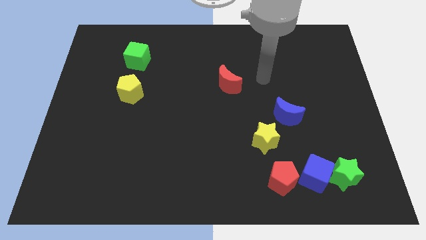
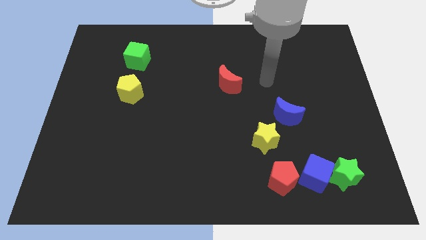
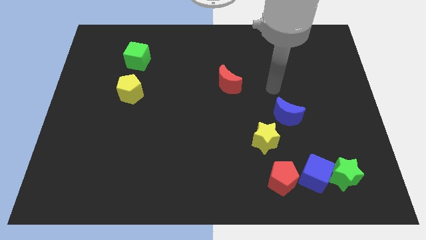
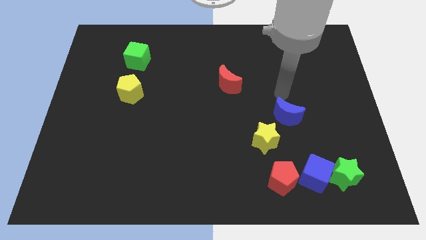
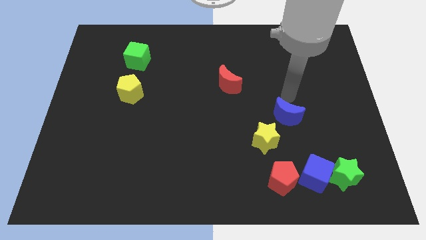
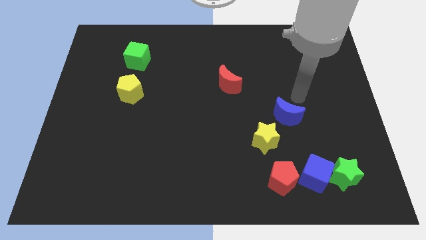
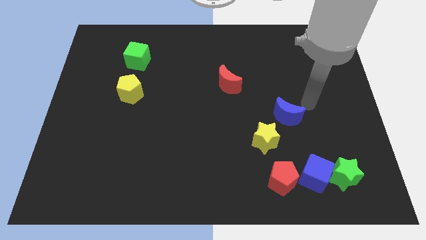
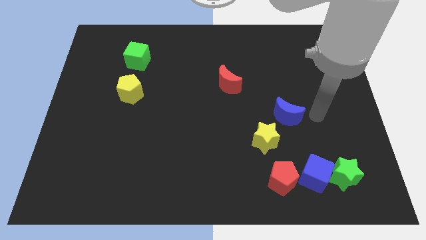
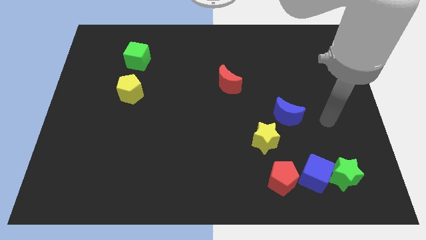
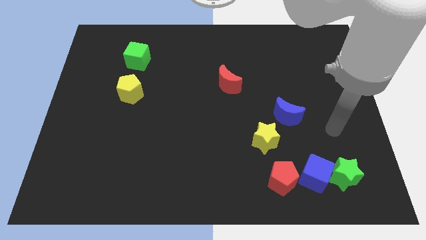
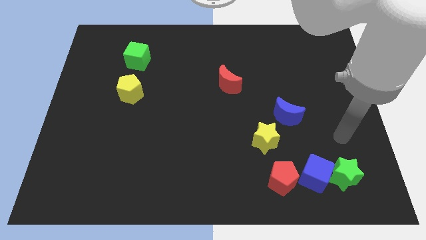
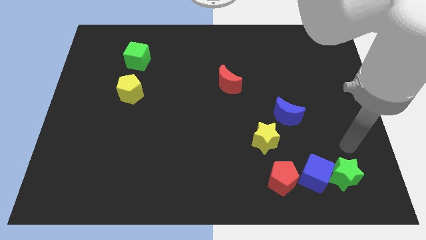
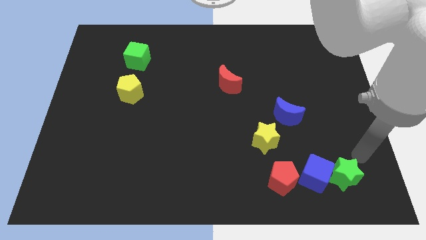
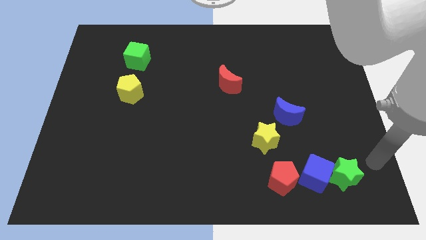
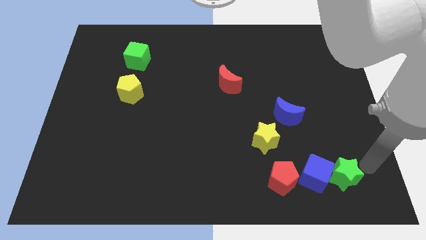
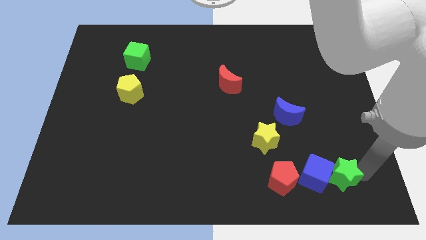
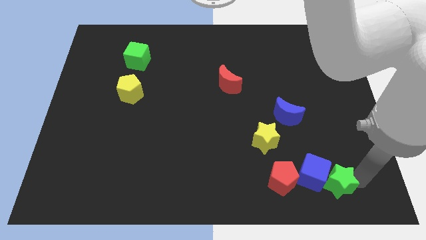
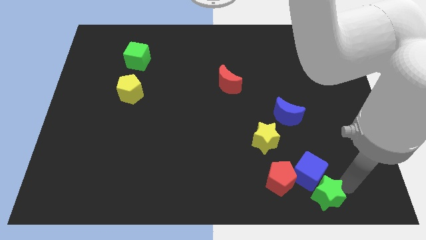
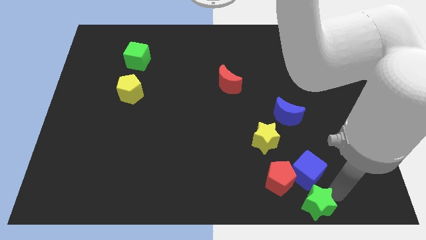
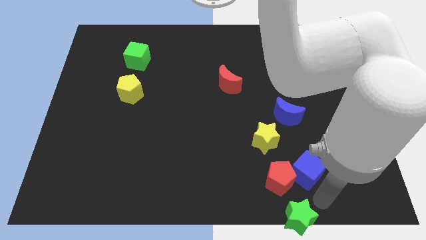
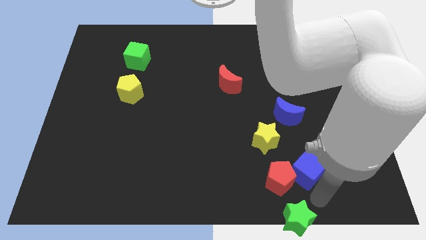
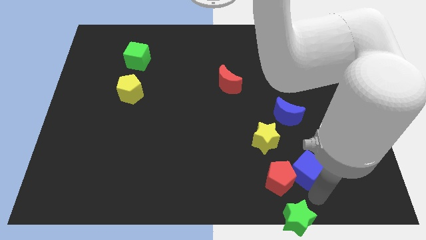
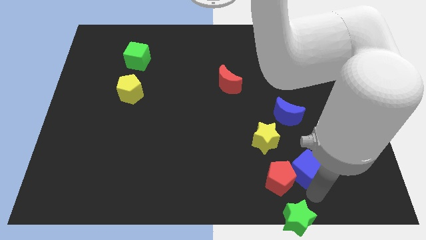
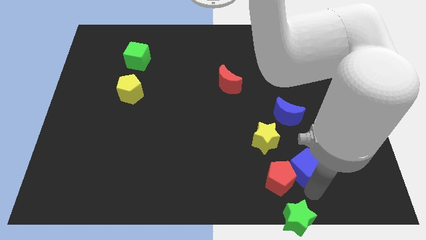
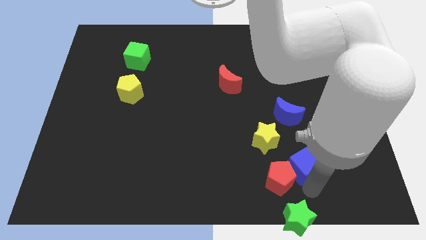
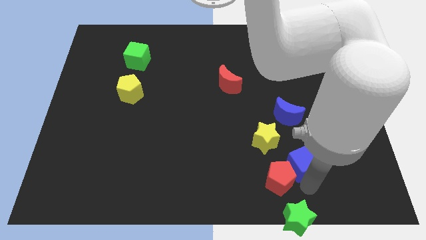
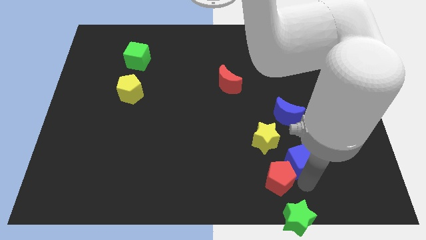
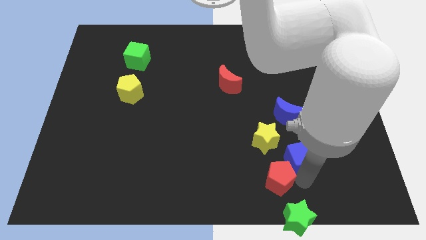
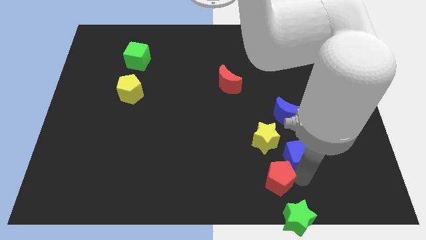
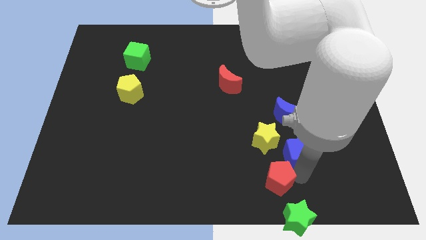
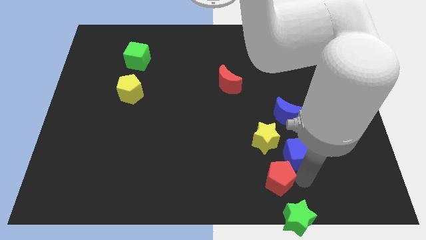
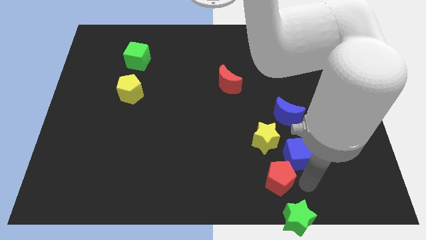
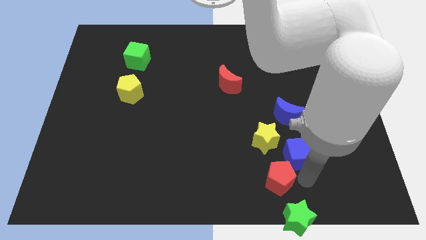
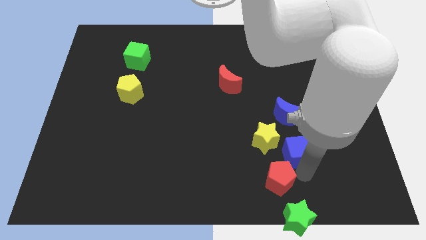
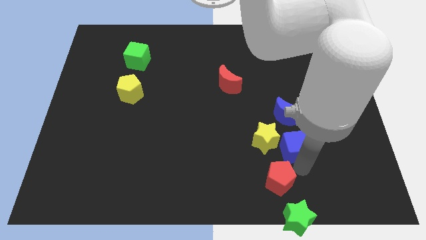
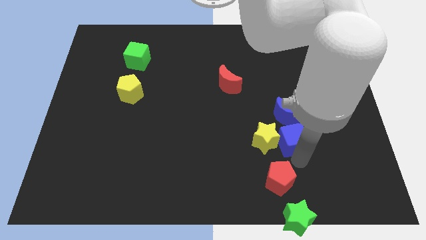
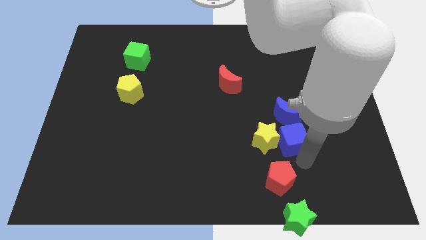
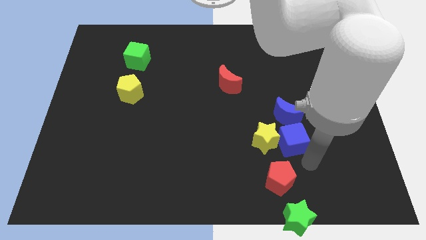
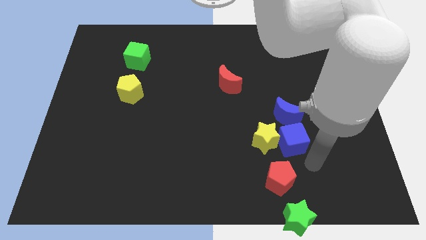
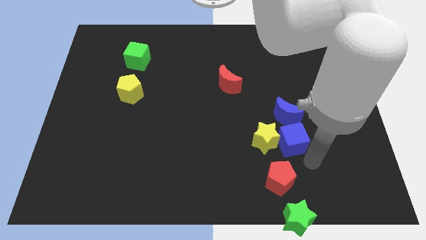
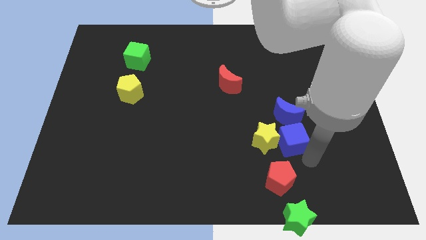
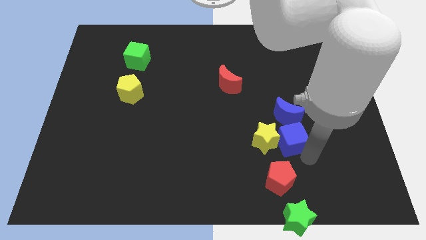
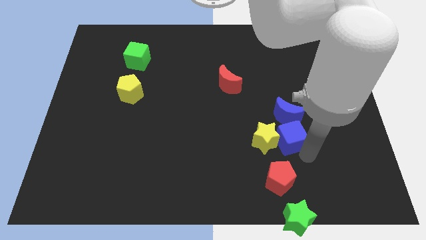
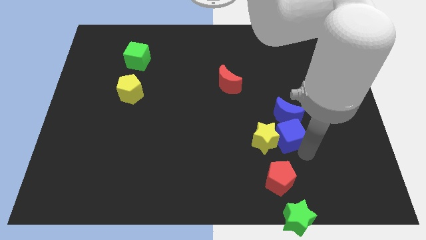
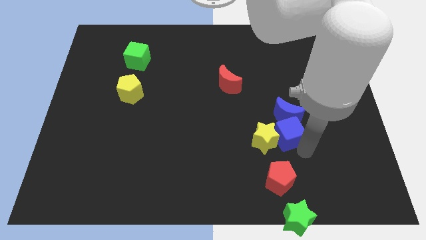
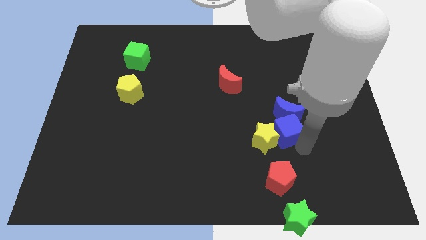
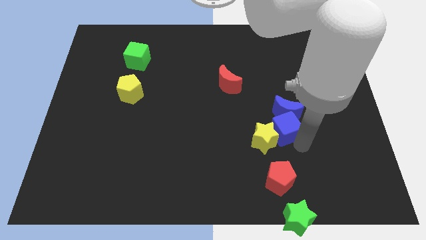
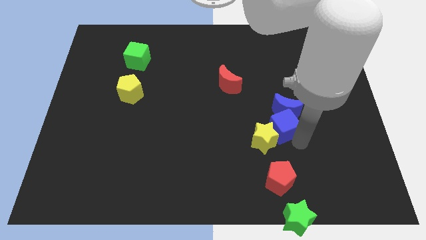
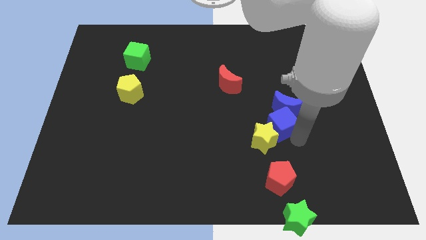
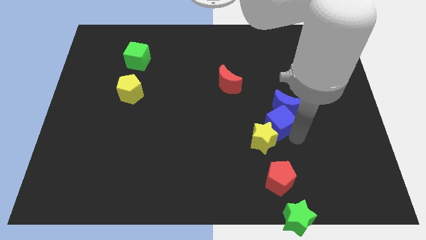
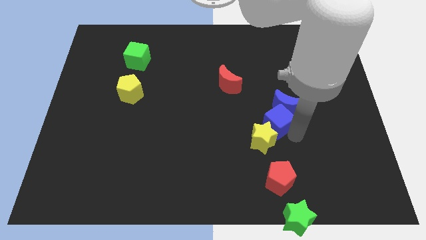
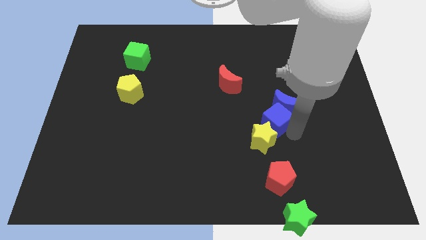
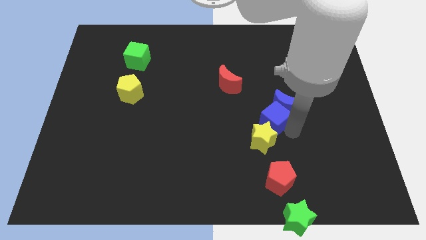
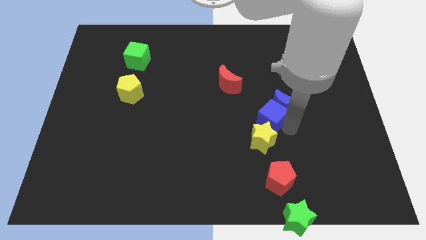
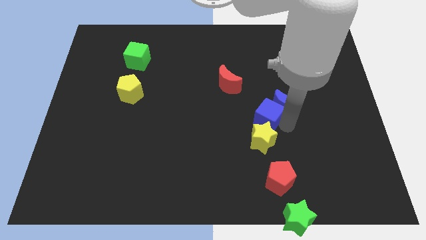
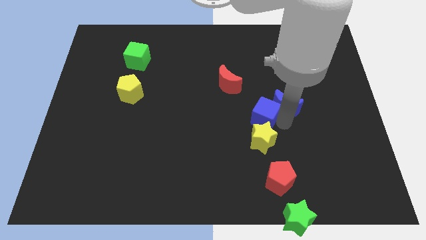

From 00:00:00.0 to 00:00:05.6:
push the blue cube to the center of the board

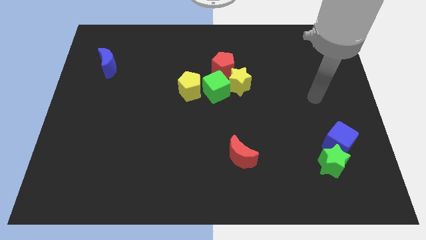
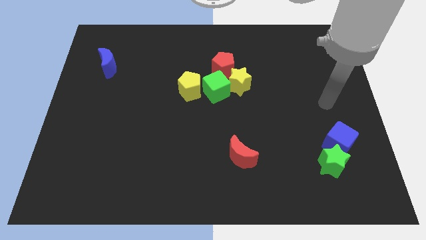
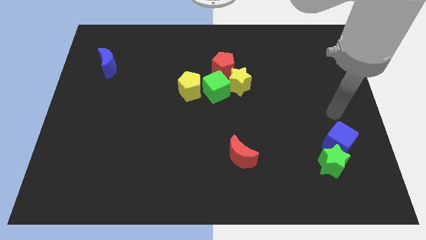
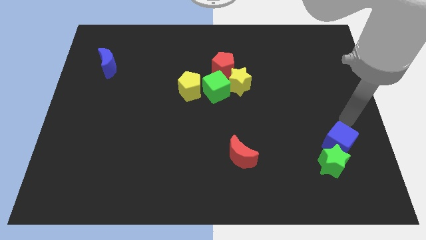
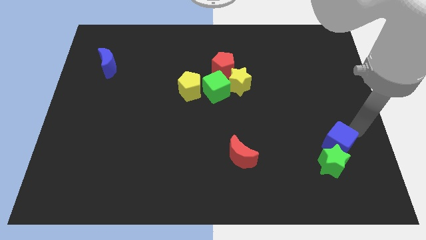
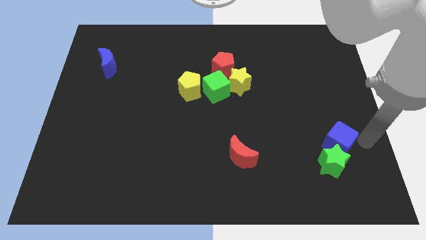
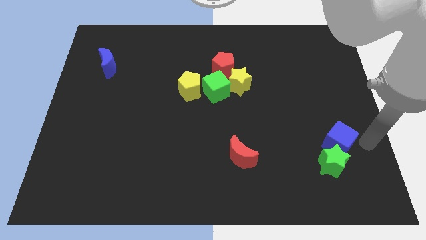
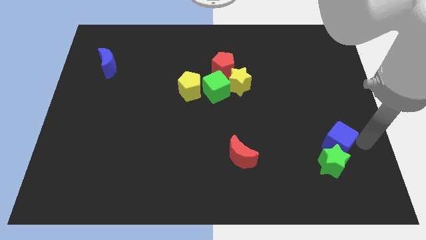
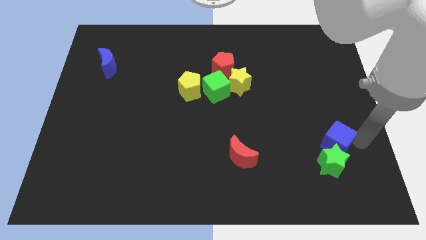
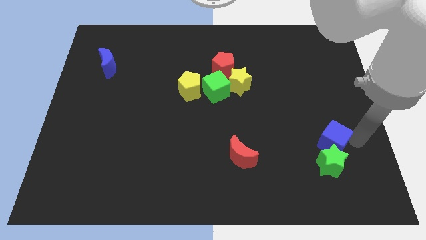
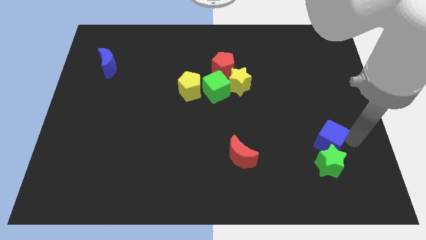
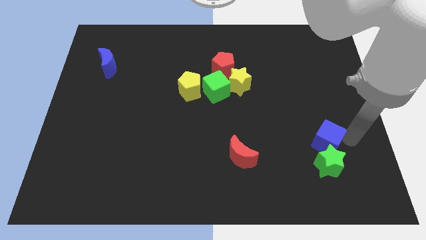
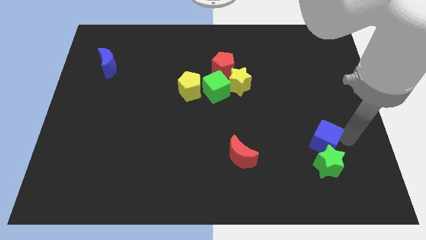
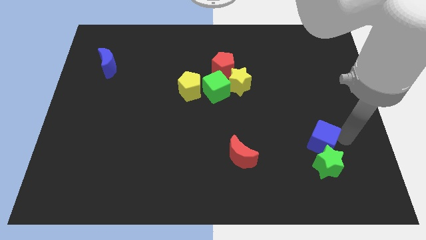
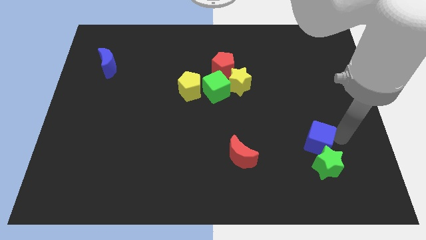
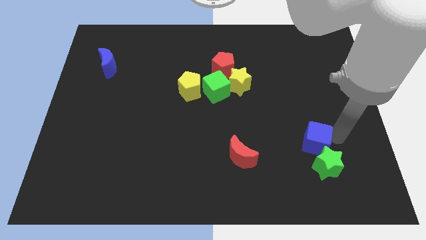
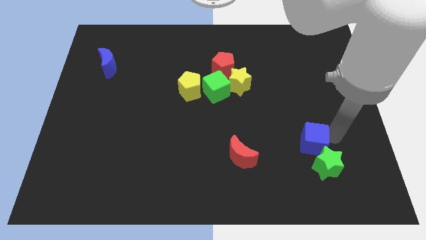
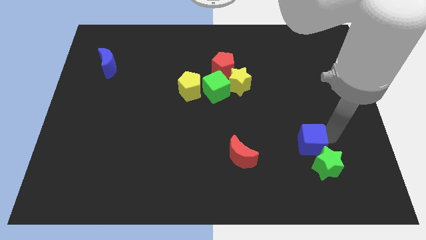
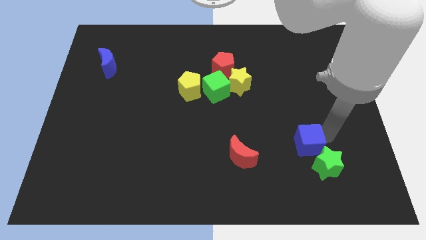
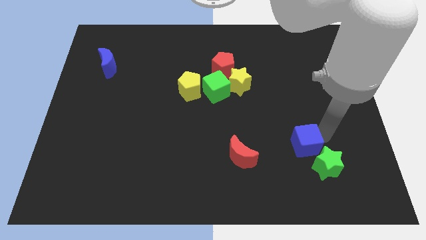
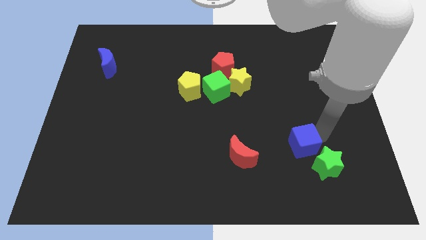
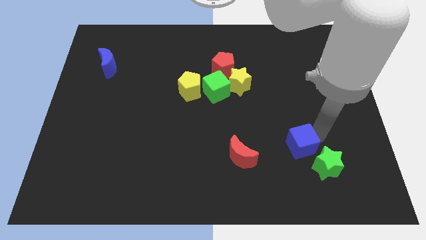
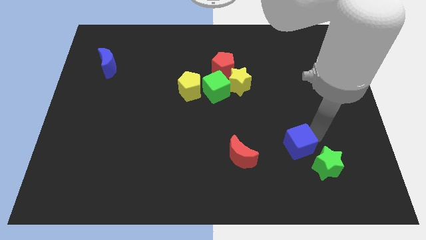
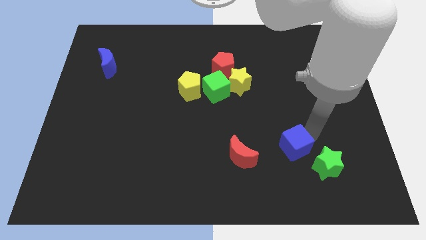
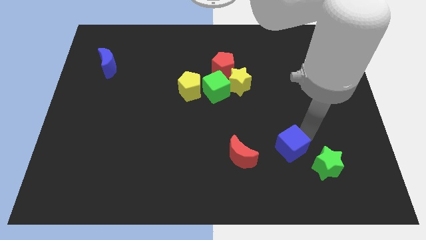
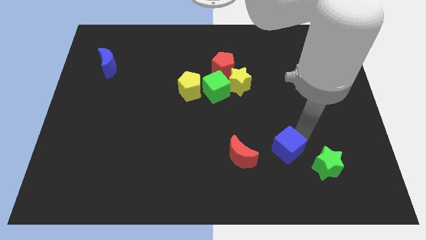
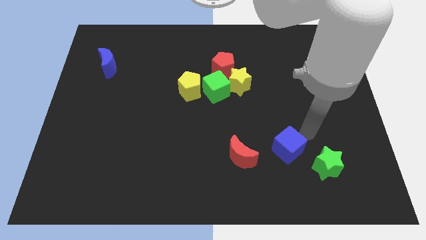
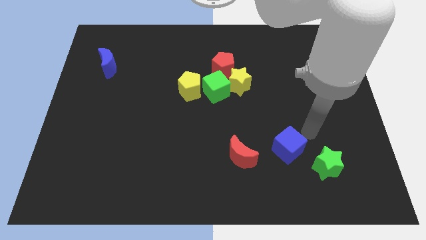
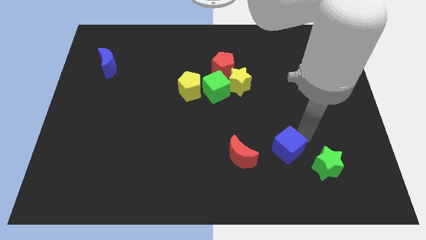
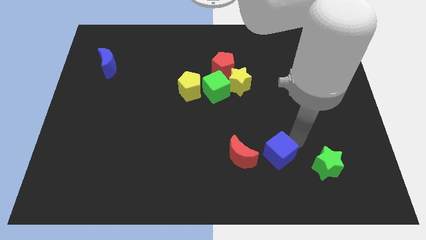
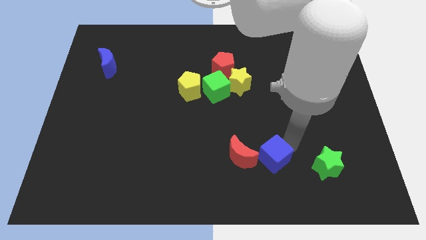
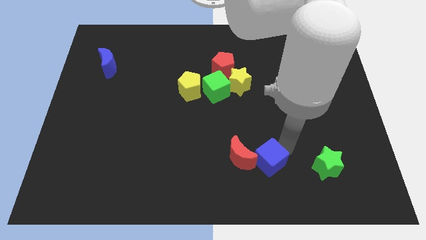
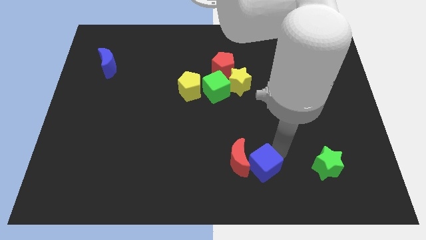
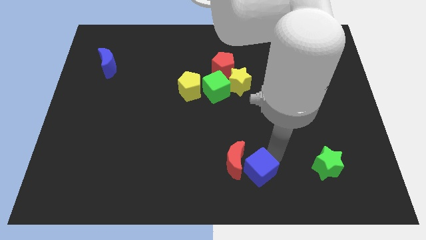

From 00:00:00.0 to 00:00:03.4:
push the blue cube to the bottom side
